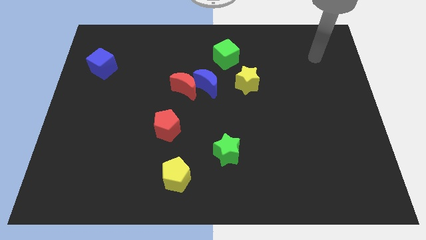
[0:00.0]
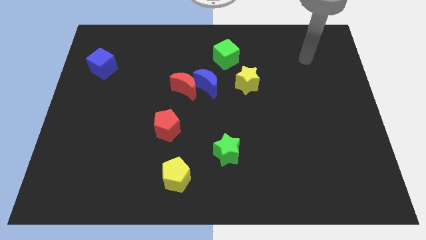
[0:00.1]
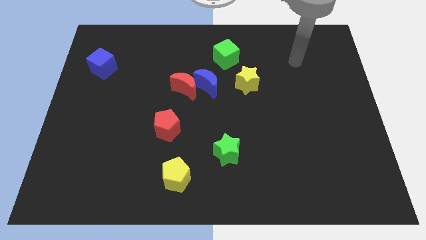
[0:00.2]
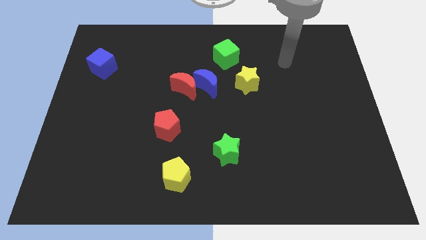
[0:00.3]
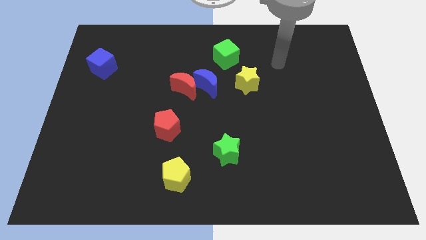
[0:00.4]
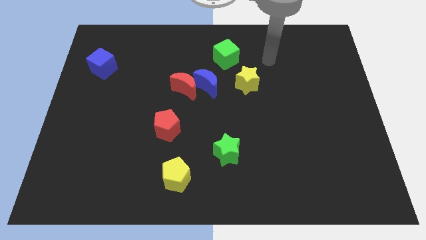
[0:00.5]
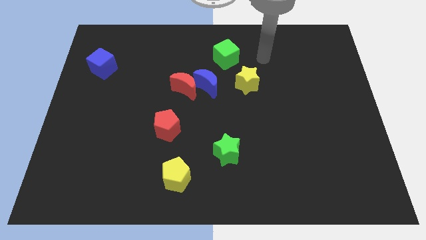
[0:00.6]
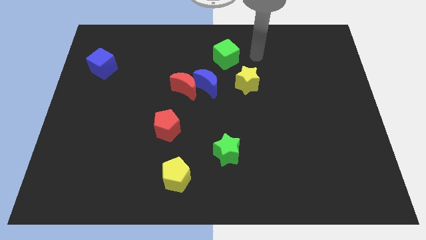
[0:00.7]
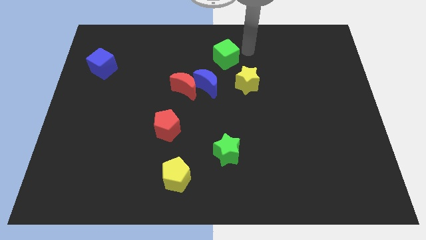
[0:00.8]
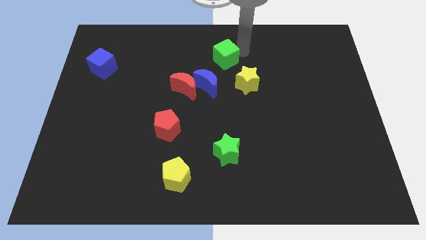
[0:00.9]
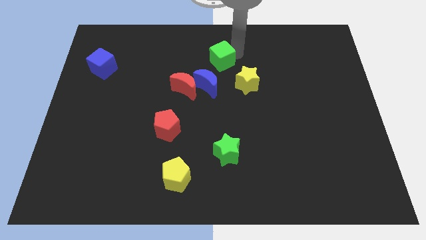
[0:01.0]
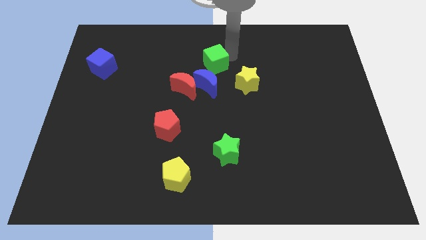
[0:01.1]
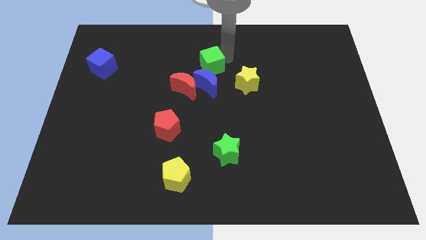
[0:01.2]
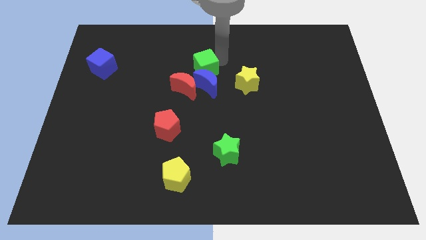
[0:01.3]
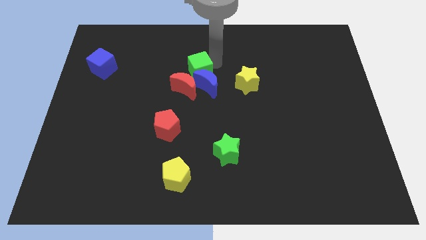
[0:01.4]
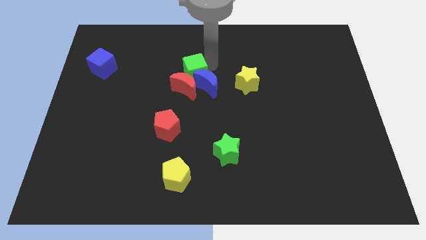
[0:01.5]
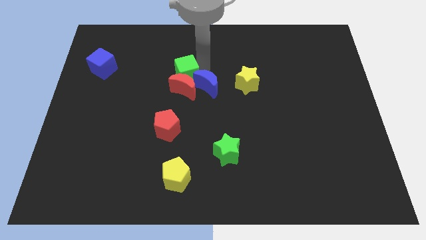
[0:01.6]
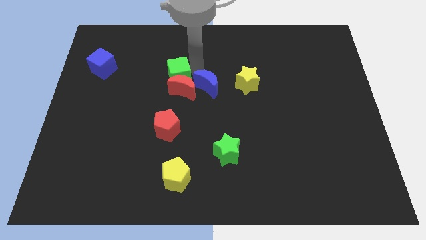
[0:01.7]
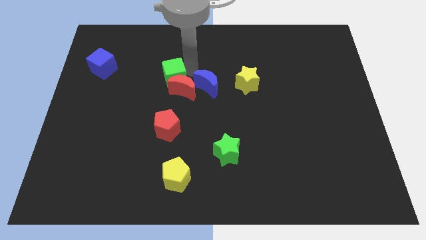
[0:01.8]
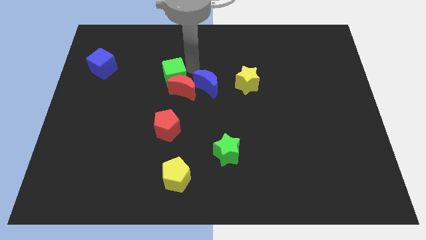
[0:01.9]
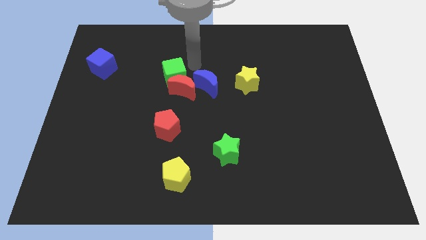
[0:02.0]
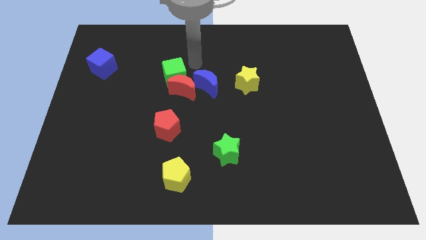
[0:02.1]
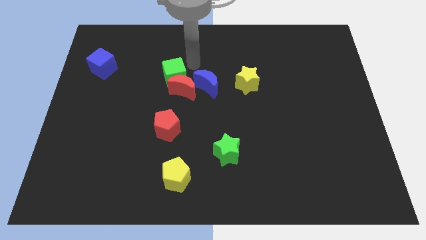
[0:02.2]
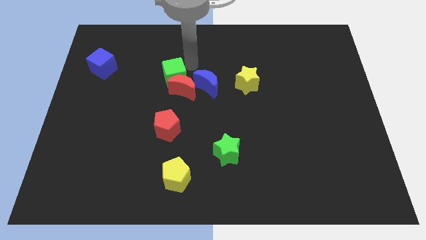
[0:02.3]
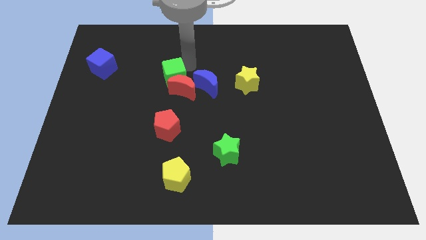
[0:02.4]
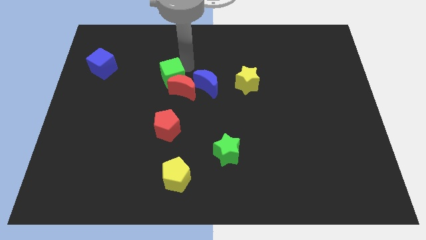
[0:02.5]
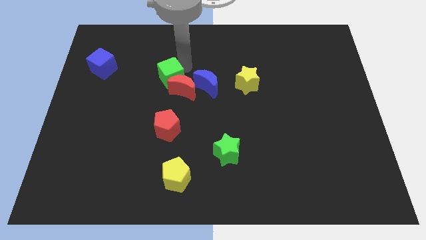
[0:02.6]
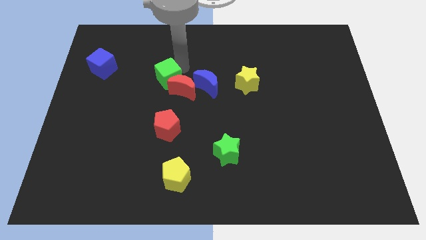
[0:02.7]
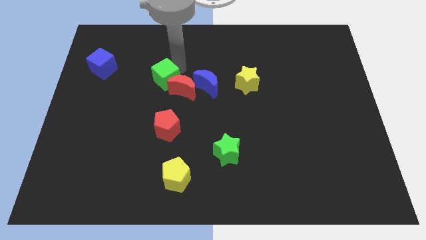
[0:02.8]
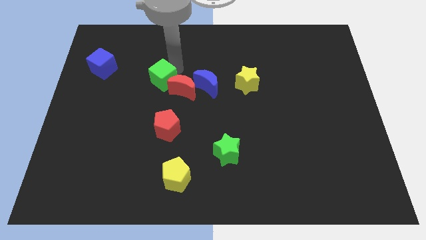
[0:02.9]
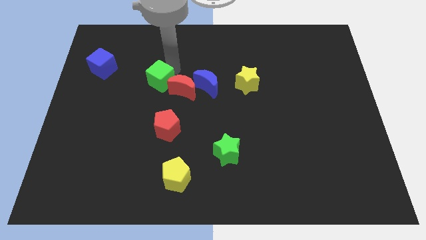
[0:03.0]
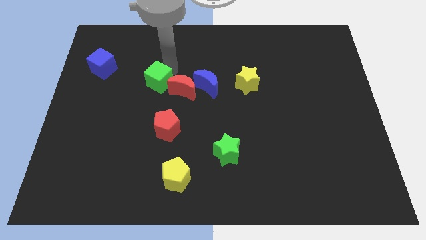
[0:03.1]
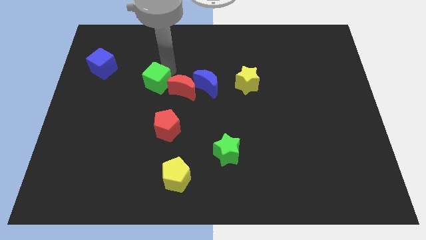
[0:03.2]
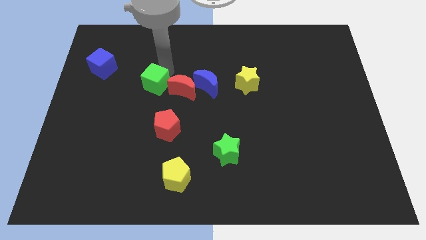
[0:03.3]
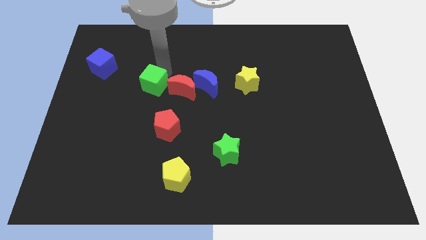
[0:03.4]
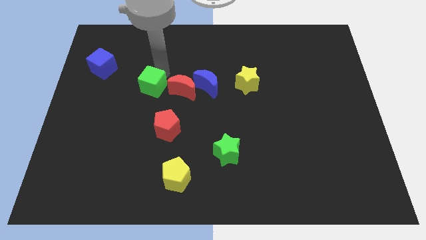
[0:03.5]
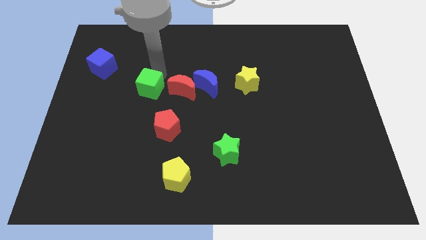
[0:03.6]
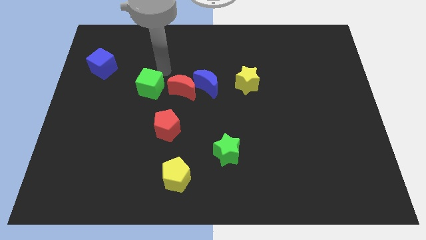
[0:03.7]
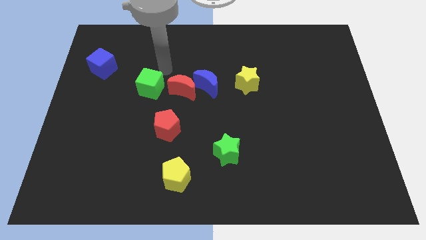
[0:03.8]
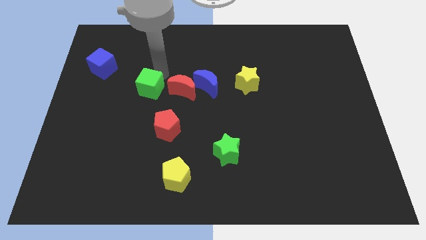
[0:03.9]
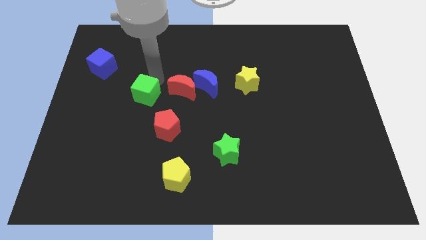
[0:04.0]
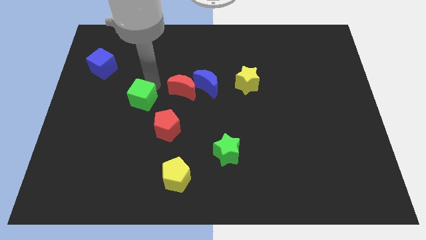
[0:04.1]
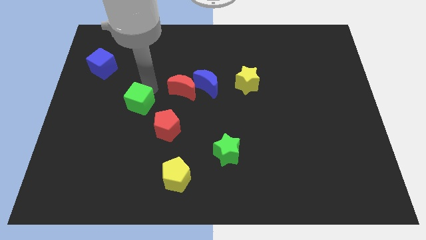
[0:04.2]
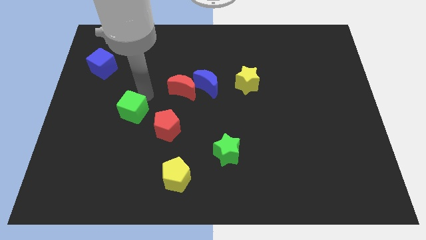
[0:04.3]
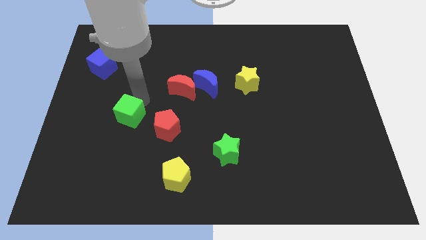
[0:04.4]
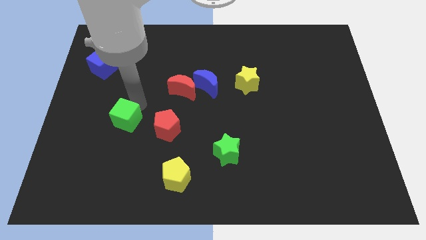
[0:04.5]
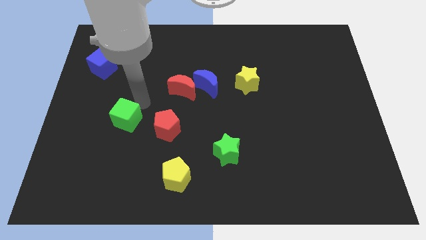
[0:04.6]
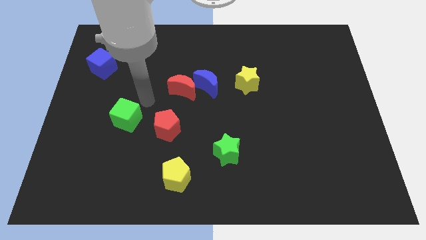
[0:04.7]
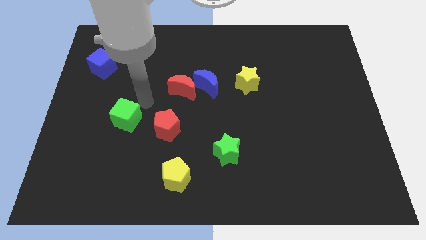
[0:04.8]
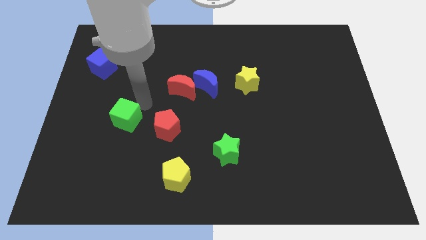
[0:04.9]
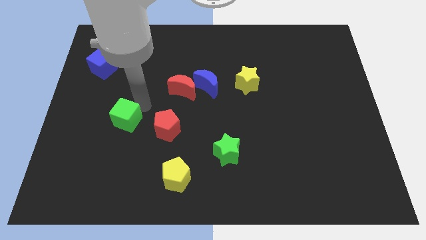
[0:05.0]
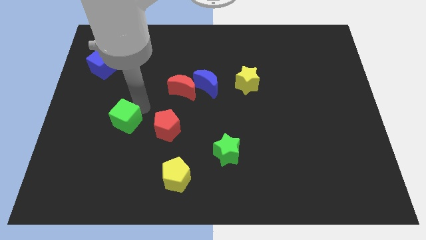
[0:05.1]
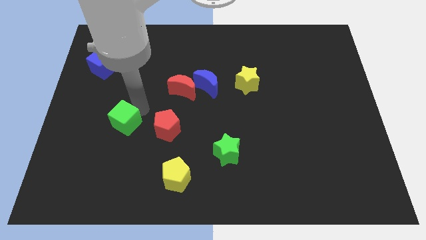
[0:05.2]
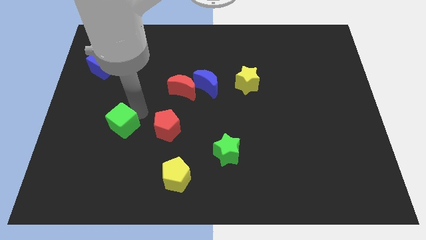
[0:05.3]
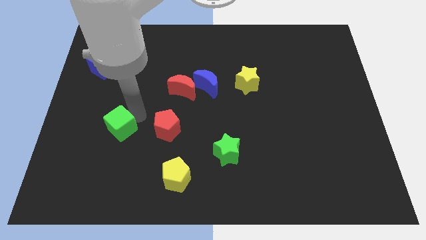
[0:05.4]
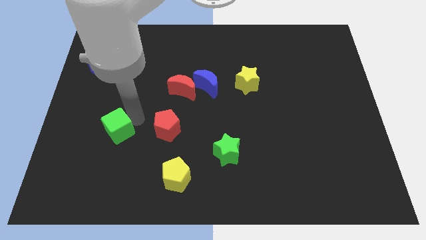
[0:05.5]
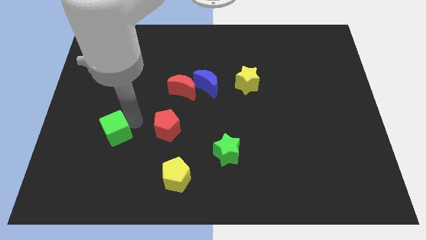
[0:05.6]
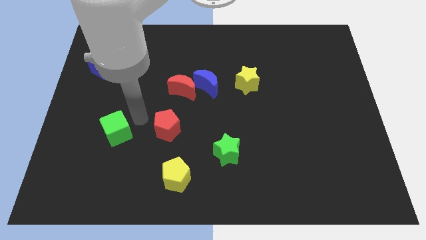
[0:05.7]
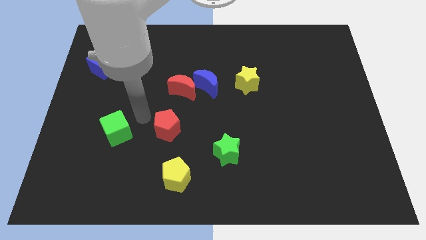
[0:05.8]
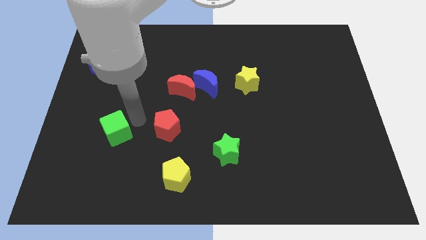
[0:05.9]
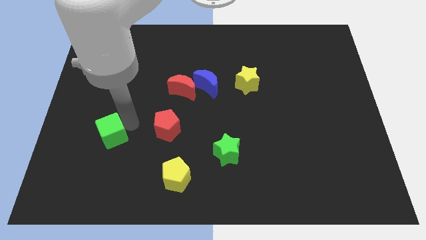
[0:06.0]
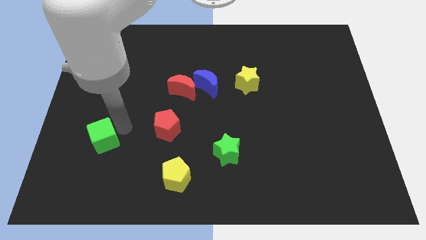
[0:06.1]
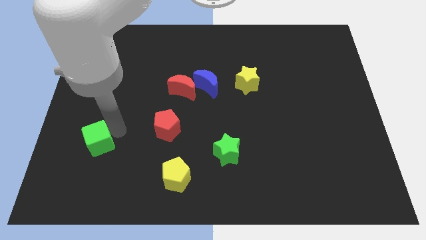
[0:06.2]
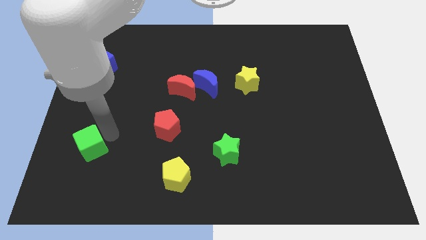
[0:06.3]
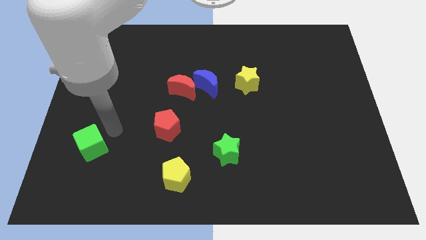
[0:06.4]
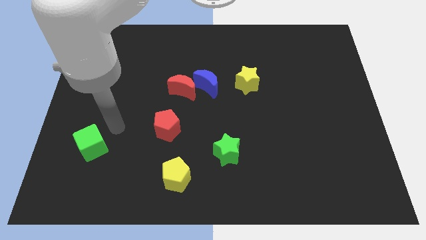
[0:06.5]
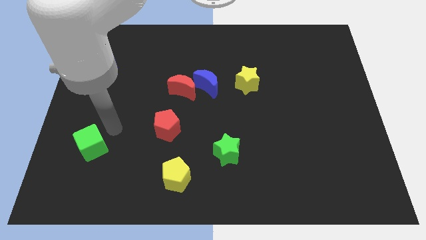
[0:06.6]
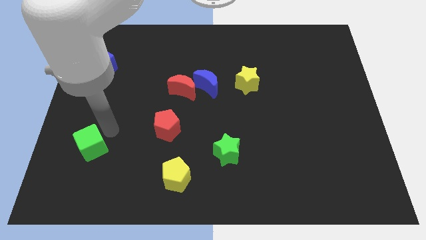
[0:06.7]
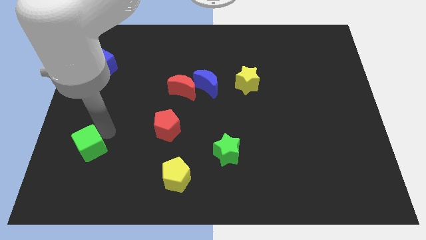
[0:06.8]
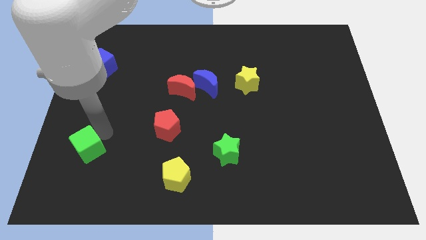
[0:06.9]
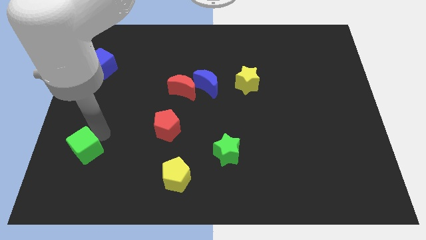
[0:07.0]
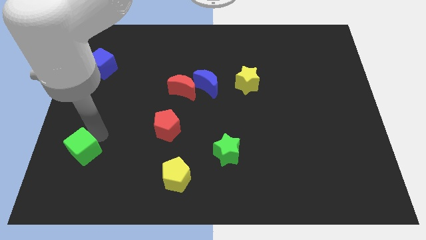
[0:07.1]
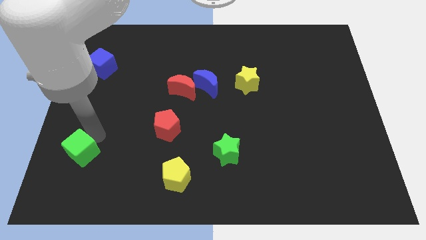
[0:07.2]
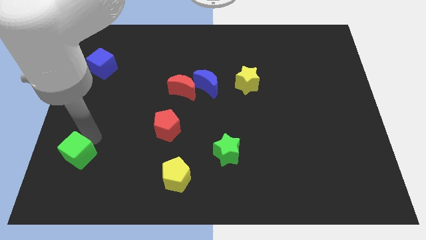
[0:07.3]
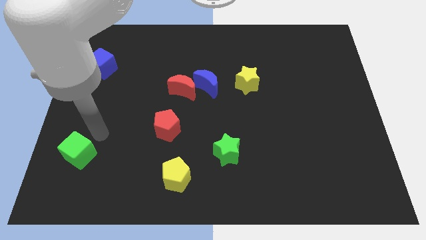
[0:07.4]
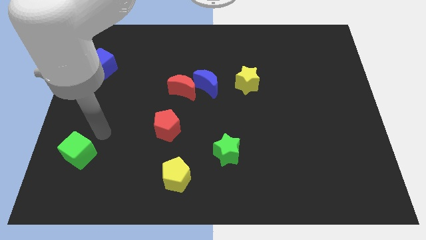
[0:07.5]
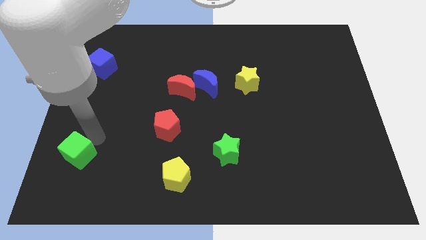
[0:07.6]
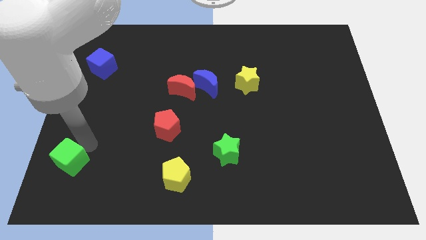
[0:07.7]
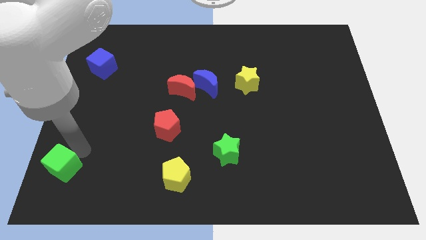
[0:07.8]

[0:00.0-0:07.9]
put the green cube to the bottom left of the board
